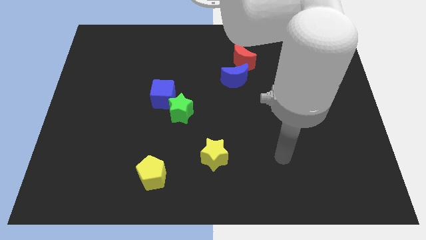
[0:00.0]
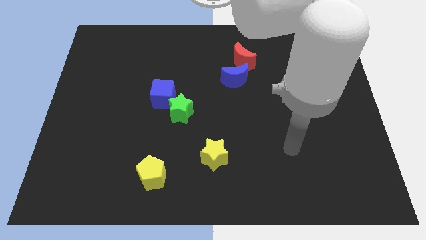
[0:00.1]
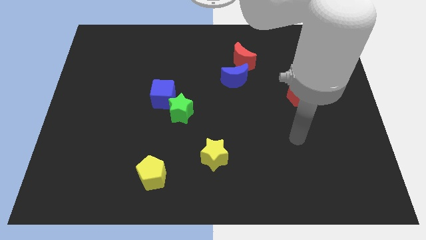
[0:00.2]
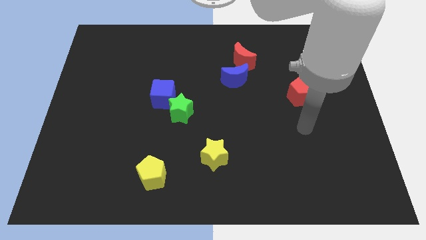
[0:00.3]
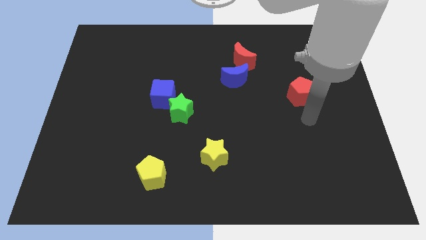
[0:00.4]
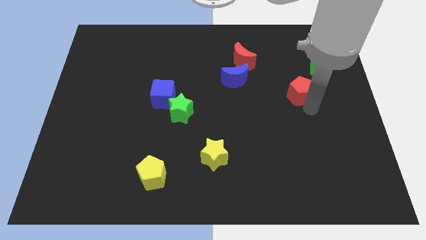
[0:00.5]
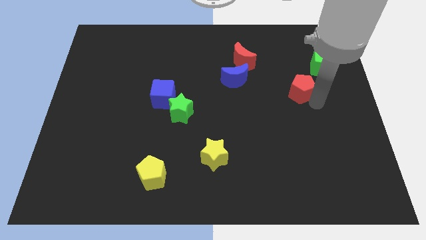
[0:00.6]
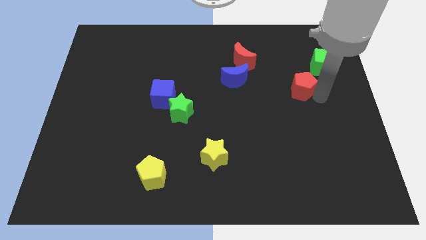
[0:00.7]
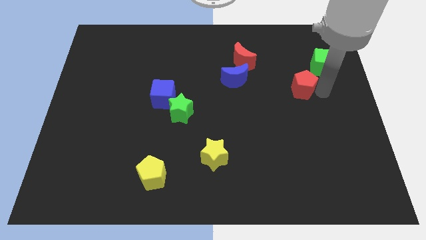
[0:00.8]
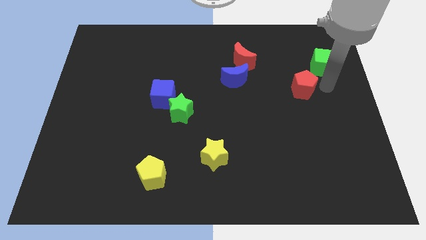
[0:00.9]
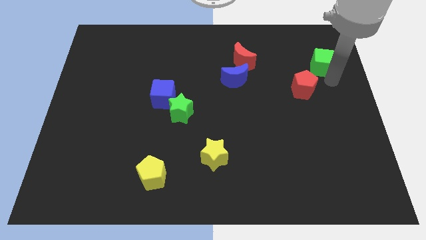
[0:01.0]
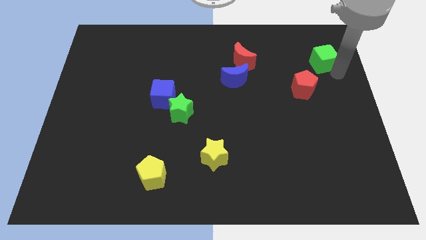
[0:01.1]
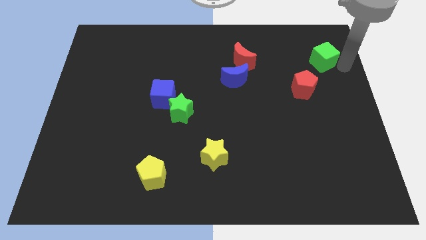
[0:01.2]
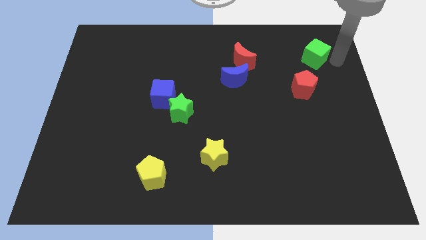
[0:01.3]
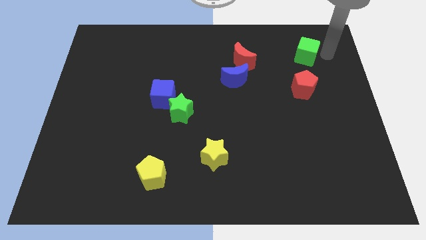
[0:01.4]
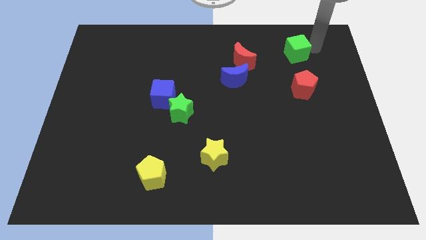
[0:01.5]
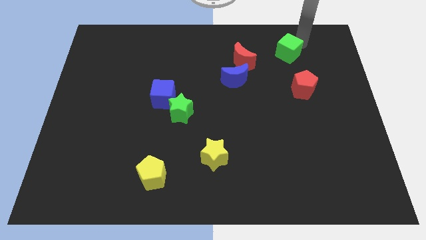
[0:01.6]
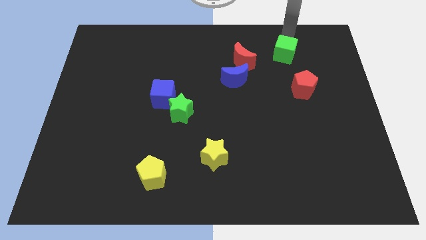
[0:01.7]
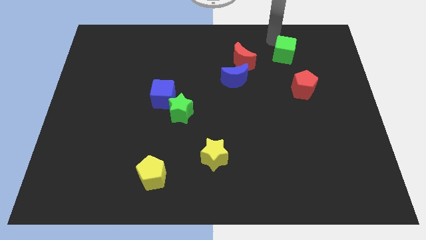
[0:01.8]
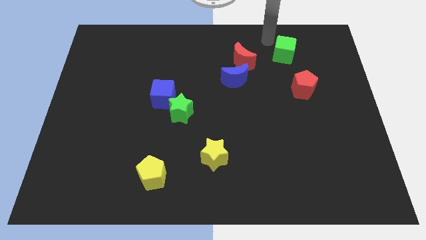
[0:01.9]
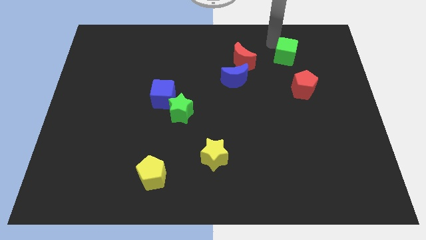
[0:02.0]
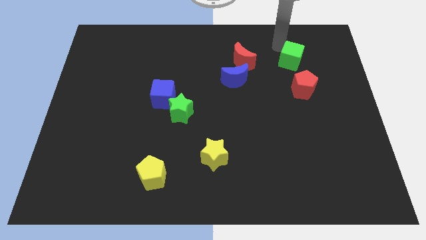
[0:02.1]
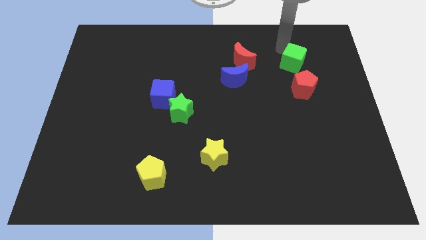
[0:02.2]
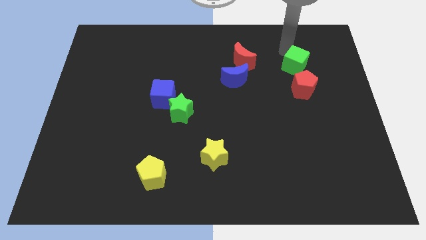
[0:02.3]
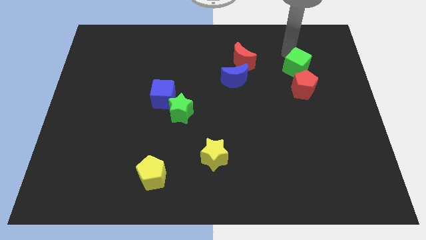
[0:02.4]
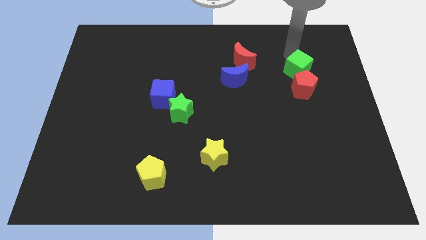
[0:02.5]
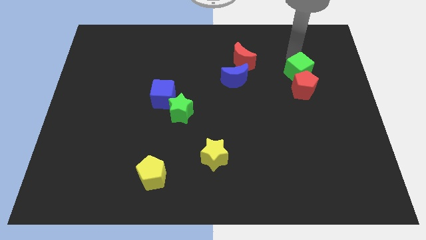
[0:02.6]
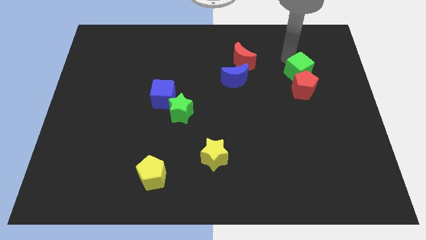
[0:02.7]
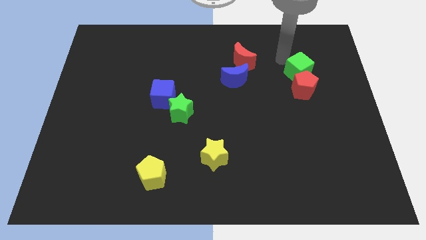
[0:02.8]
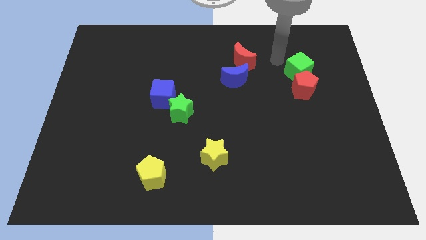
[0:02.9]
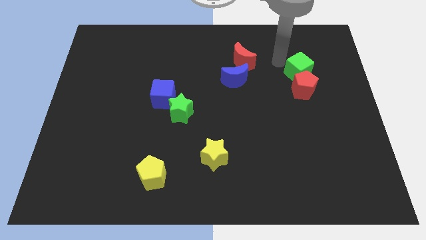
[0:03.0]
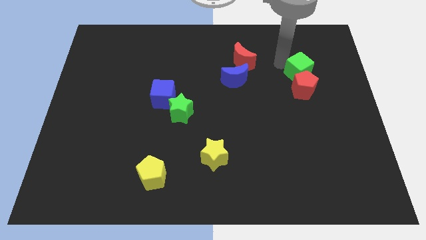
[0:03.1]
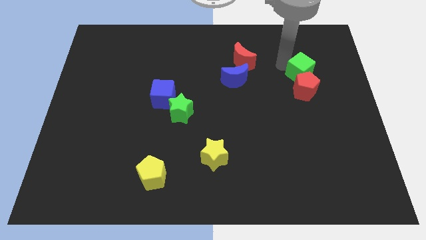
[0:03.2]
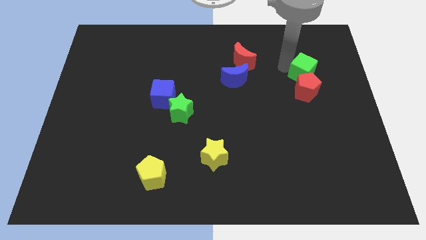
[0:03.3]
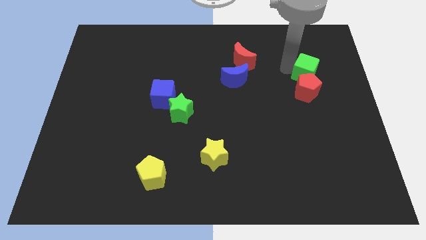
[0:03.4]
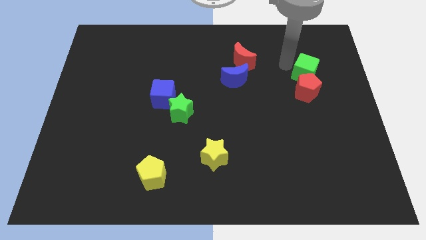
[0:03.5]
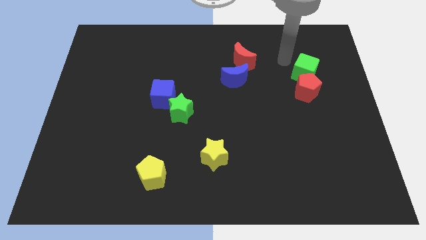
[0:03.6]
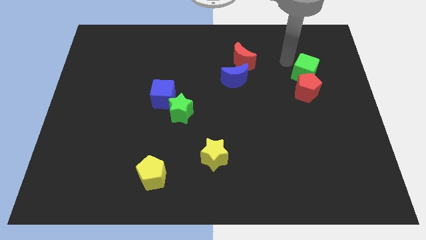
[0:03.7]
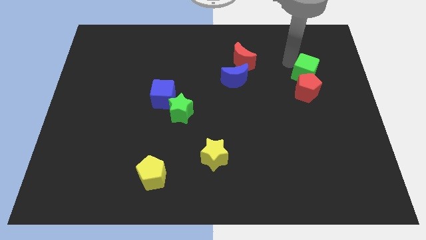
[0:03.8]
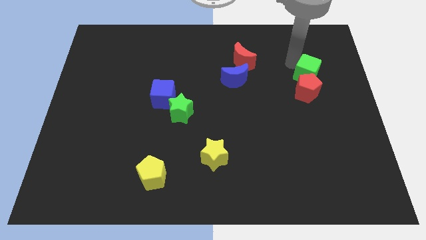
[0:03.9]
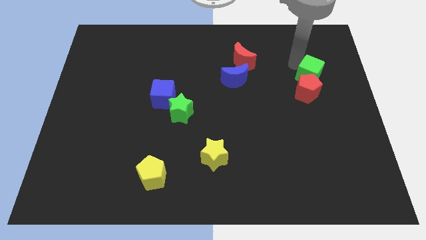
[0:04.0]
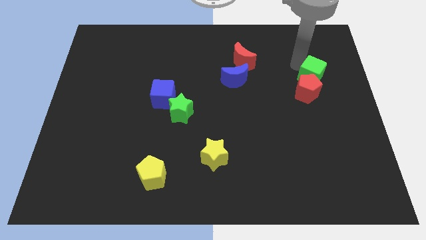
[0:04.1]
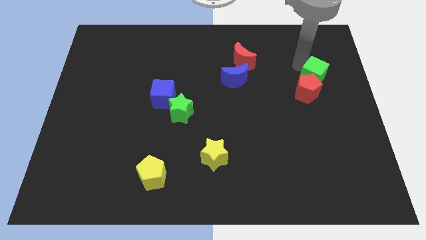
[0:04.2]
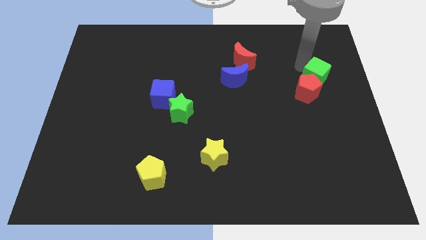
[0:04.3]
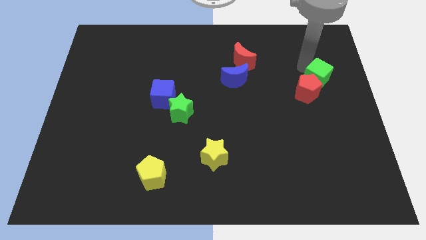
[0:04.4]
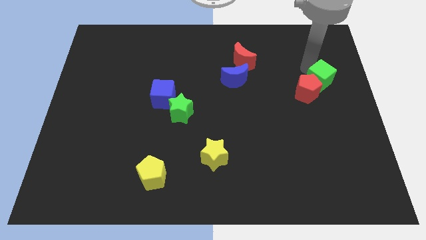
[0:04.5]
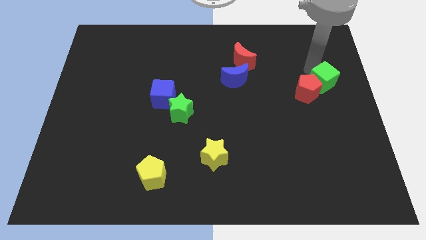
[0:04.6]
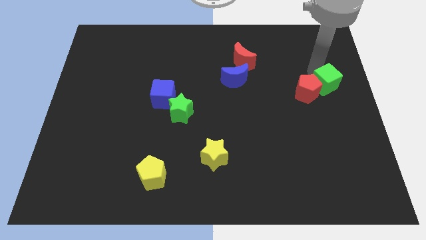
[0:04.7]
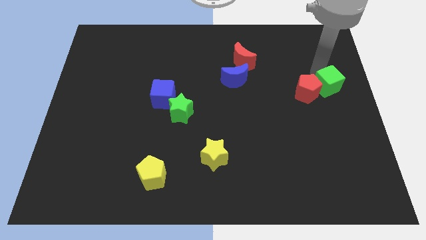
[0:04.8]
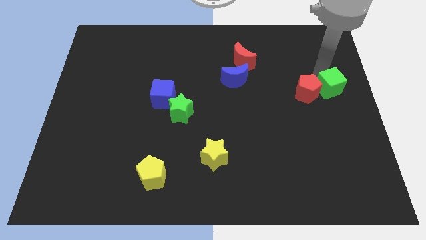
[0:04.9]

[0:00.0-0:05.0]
slightly push the green cube downwards

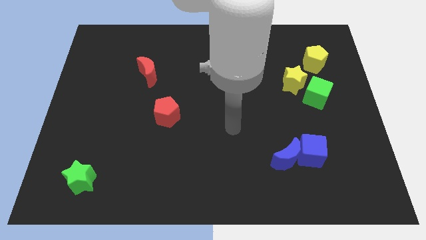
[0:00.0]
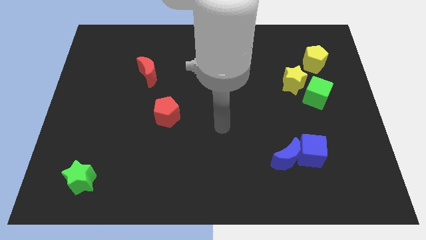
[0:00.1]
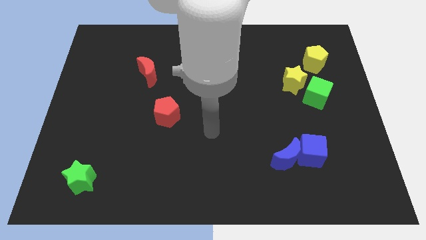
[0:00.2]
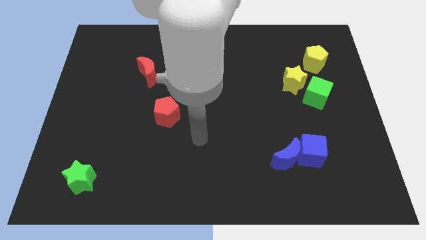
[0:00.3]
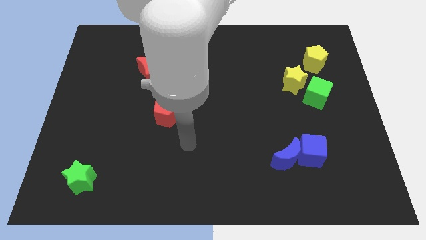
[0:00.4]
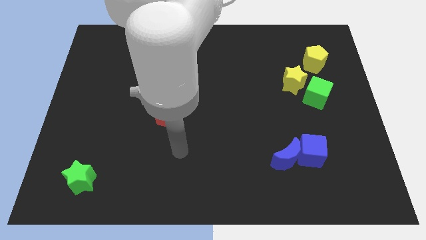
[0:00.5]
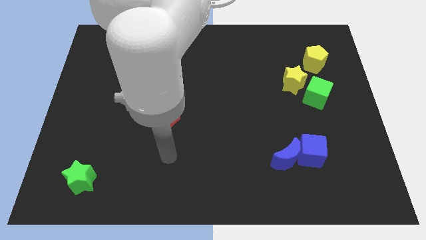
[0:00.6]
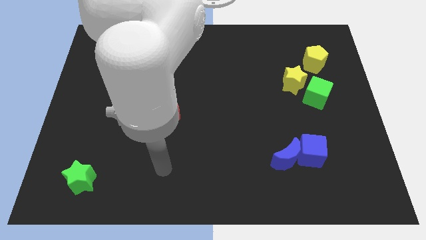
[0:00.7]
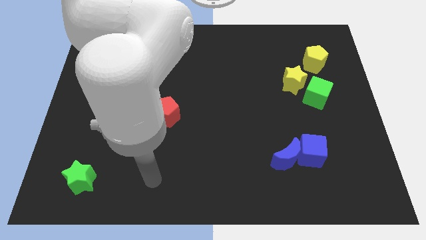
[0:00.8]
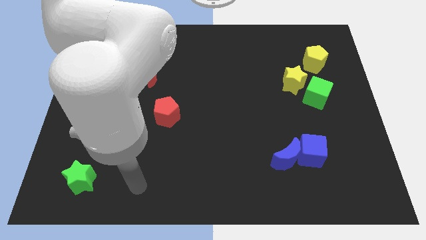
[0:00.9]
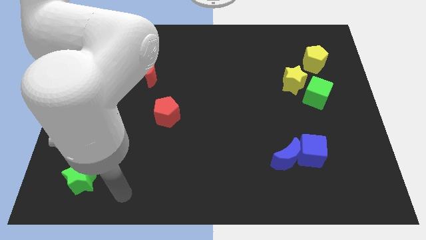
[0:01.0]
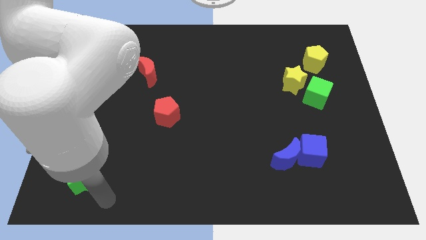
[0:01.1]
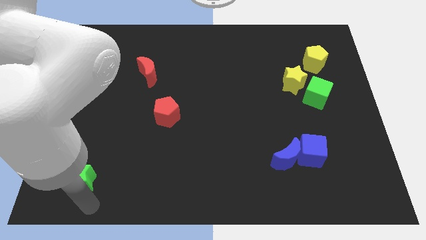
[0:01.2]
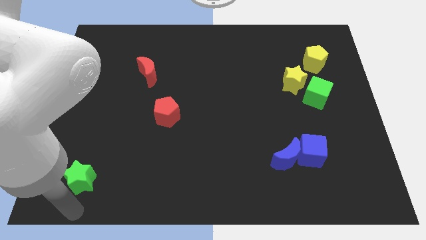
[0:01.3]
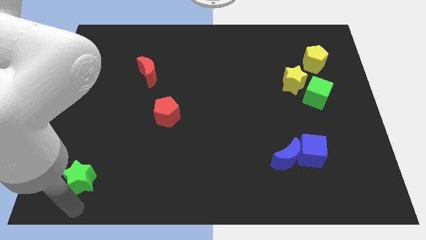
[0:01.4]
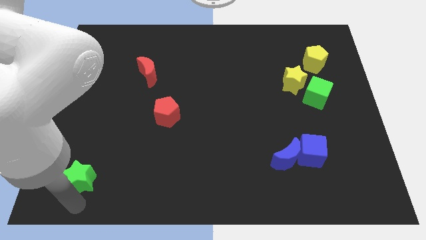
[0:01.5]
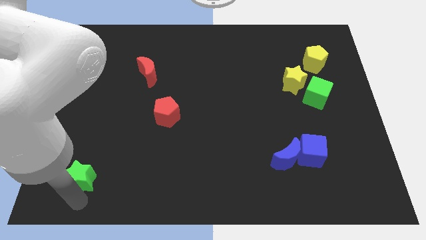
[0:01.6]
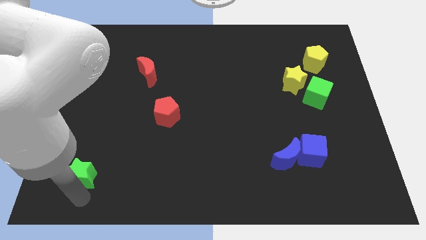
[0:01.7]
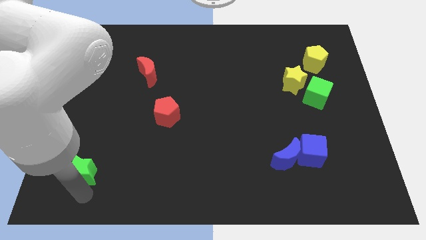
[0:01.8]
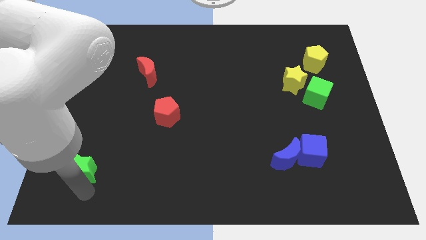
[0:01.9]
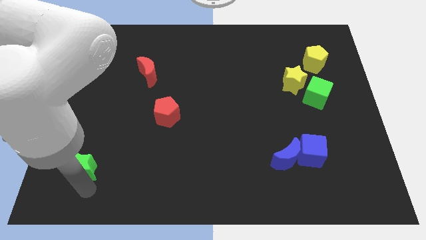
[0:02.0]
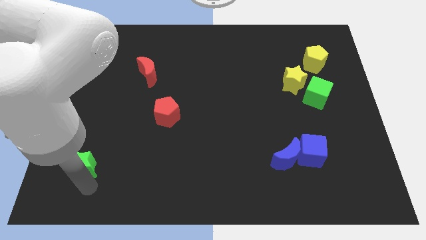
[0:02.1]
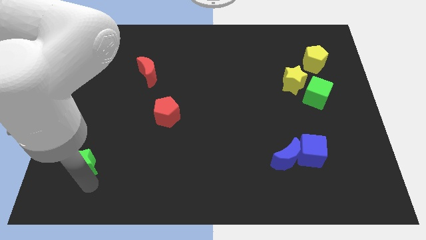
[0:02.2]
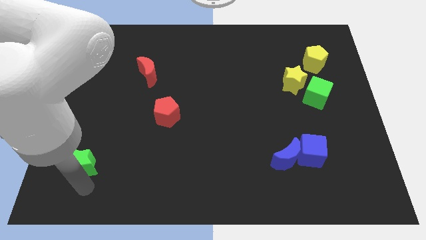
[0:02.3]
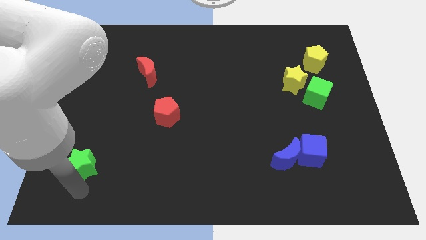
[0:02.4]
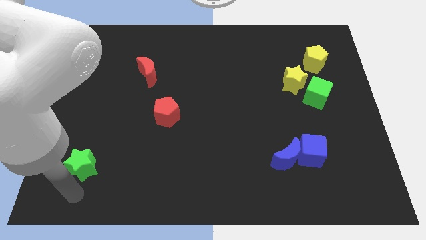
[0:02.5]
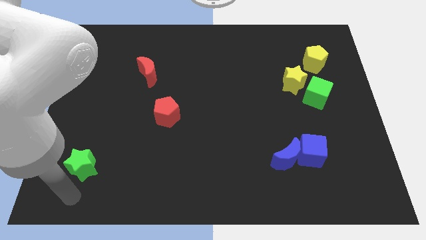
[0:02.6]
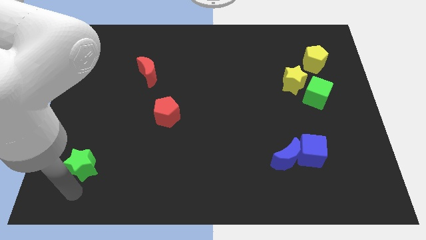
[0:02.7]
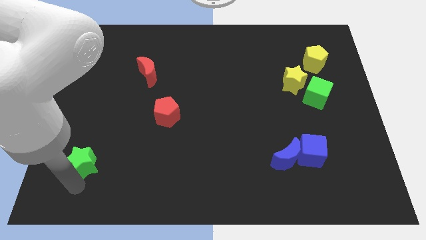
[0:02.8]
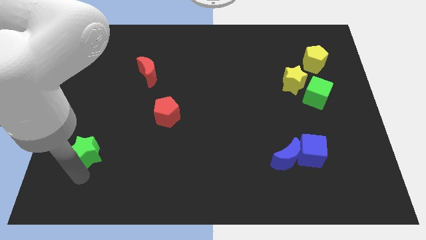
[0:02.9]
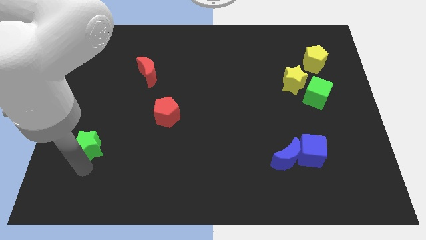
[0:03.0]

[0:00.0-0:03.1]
slightly slide the green star up

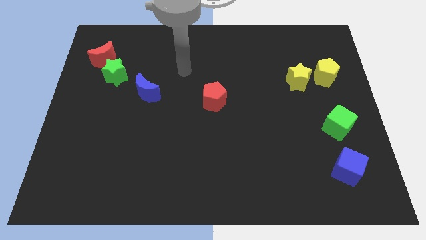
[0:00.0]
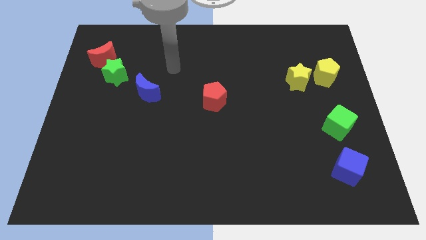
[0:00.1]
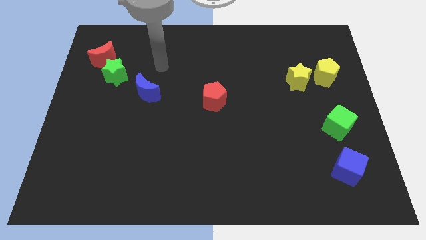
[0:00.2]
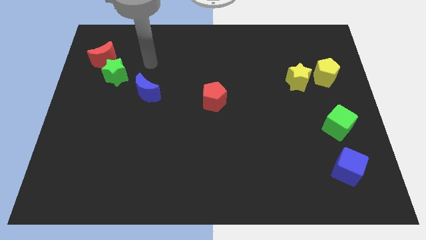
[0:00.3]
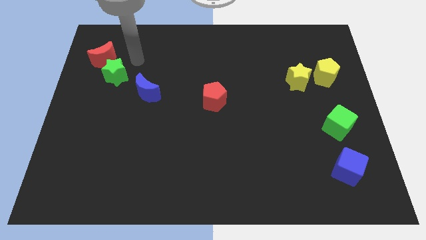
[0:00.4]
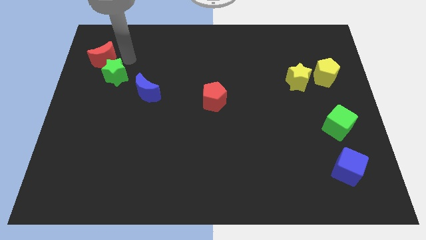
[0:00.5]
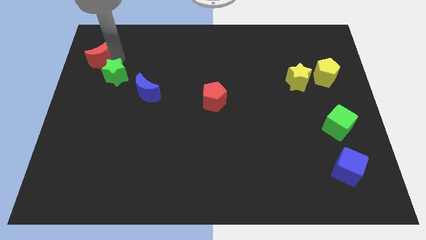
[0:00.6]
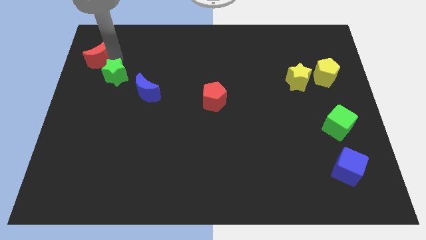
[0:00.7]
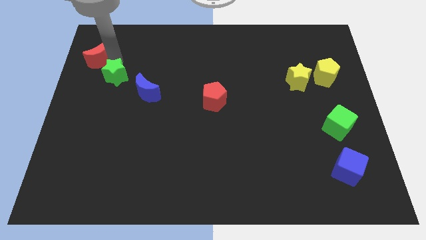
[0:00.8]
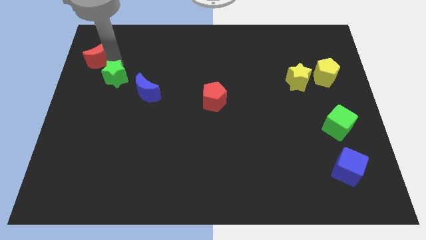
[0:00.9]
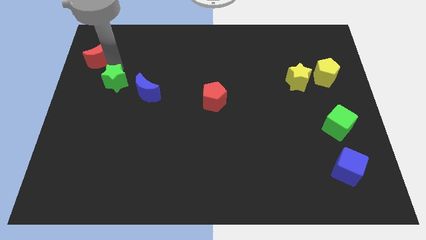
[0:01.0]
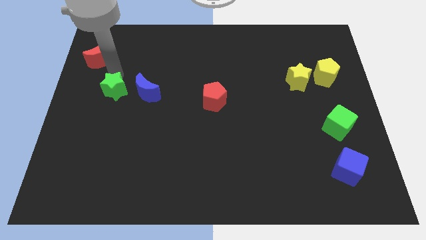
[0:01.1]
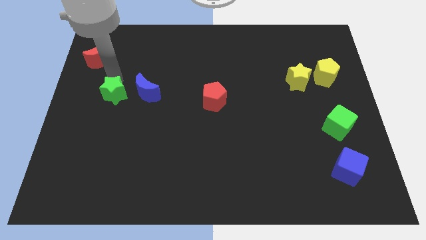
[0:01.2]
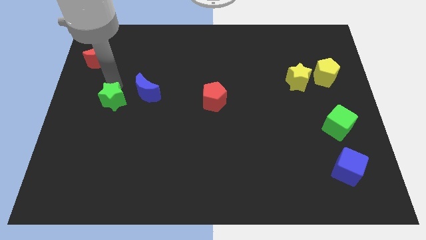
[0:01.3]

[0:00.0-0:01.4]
push the green star down slightly
